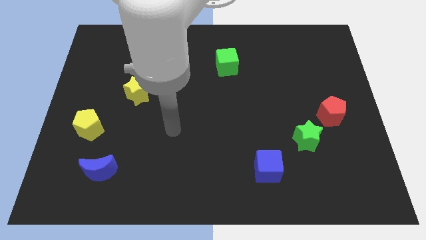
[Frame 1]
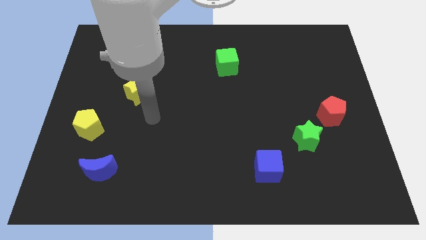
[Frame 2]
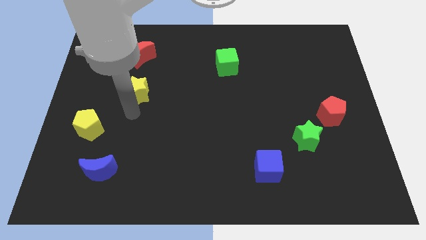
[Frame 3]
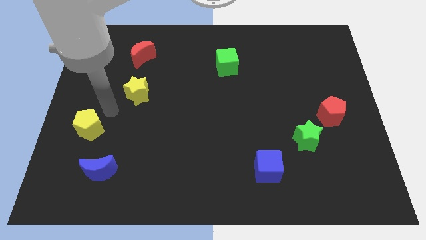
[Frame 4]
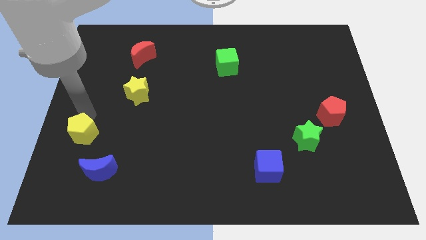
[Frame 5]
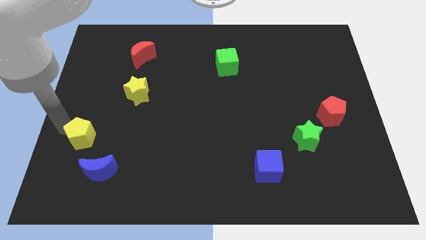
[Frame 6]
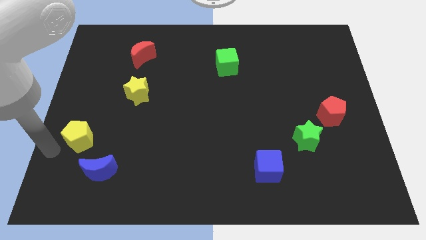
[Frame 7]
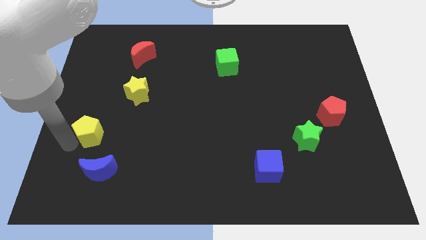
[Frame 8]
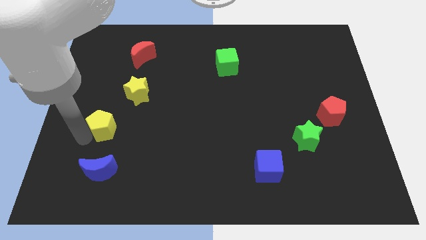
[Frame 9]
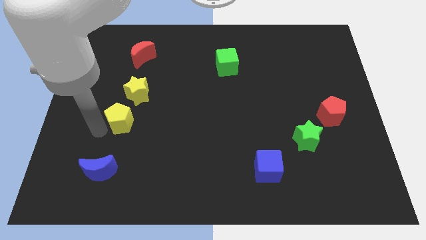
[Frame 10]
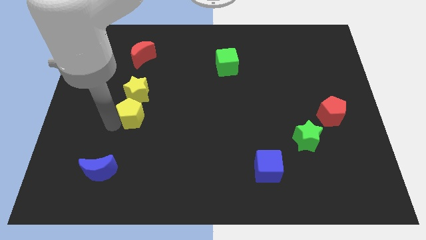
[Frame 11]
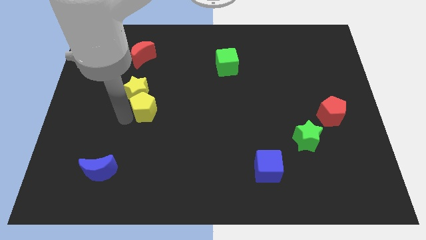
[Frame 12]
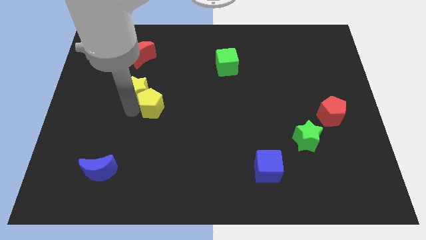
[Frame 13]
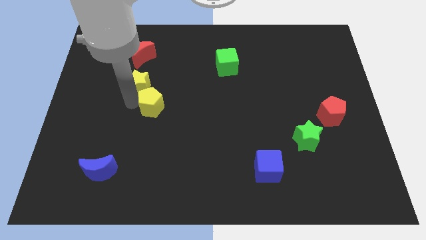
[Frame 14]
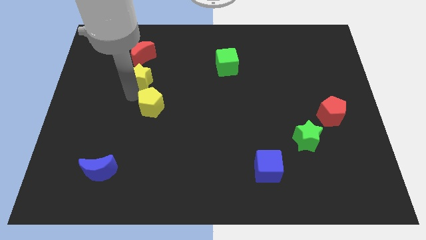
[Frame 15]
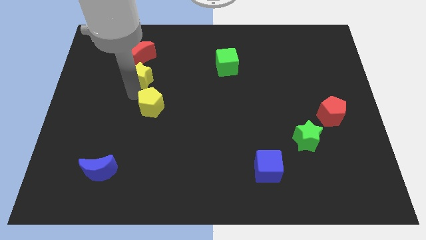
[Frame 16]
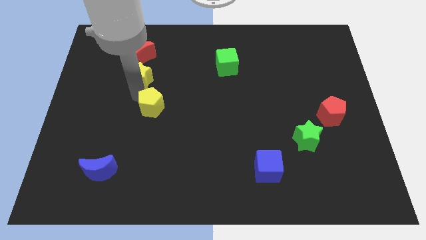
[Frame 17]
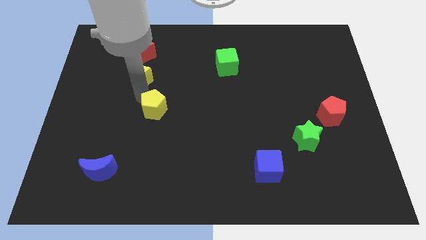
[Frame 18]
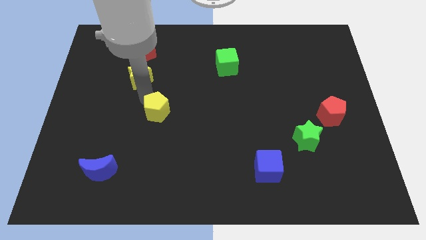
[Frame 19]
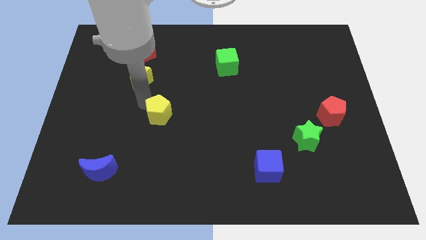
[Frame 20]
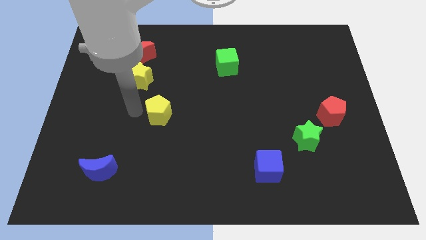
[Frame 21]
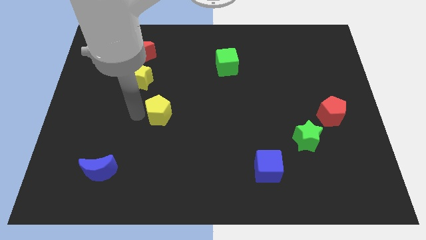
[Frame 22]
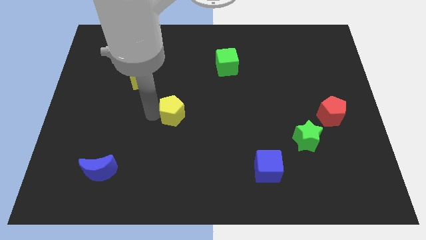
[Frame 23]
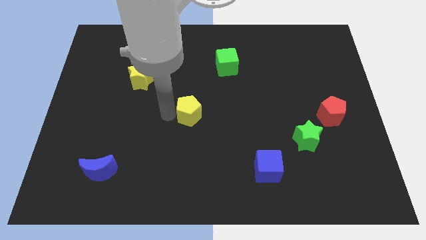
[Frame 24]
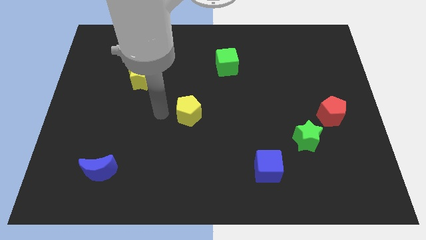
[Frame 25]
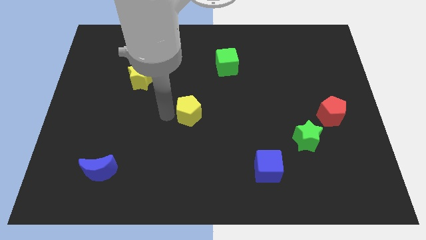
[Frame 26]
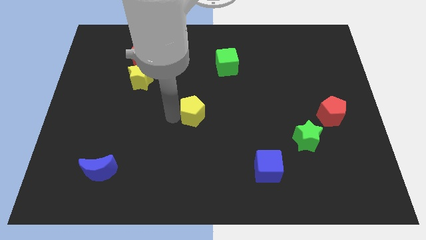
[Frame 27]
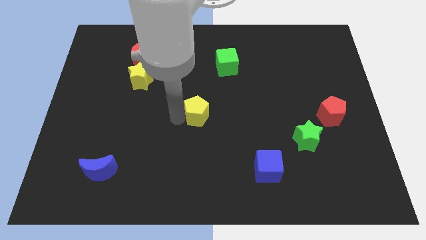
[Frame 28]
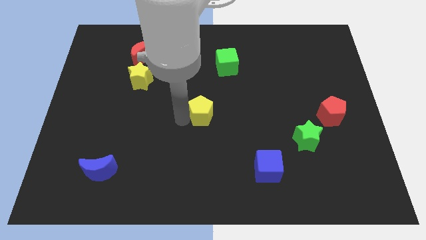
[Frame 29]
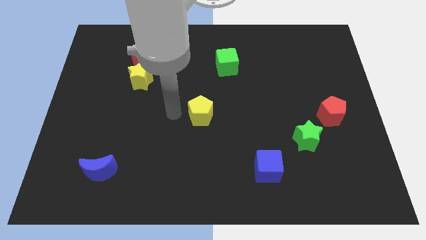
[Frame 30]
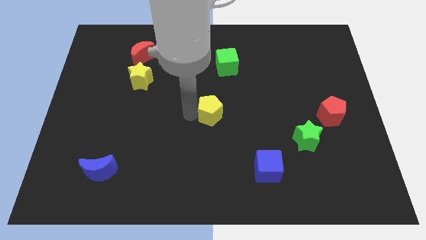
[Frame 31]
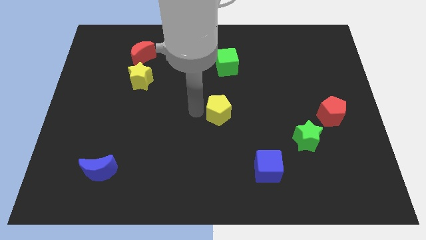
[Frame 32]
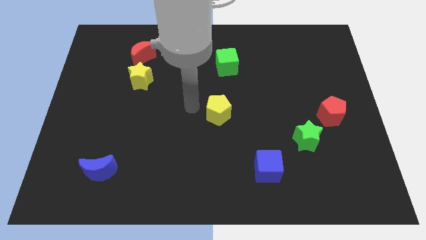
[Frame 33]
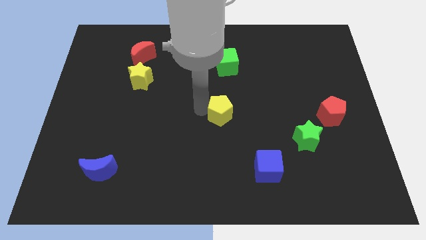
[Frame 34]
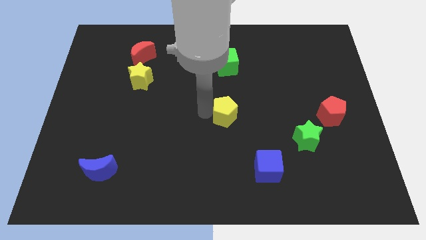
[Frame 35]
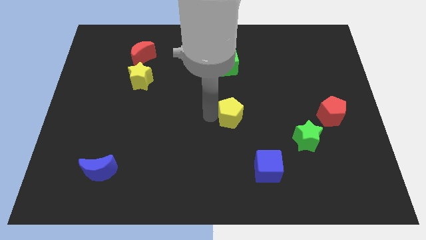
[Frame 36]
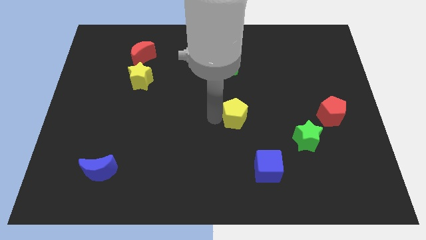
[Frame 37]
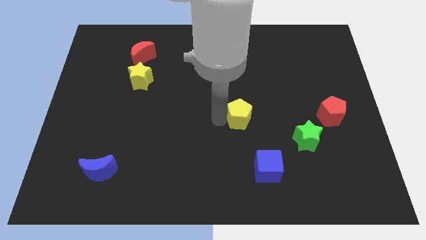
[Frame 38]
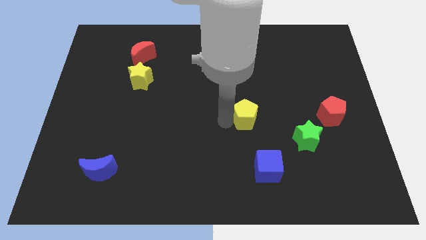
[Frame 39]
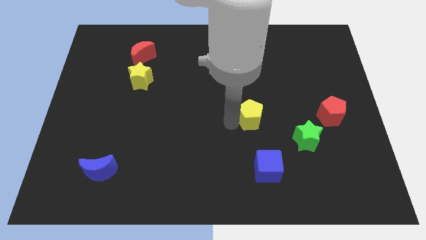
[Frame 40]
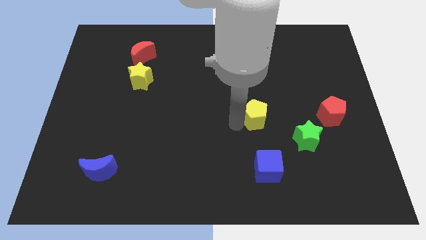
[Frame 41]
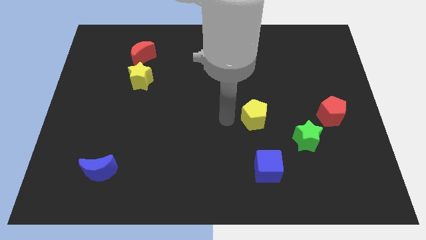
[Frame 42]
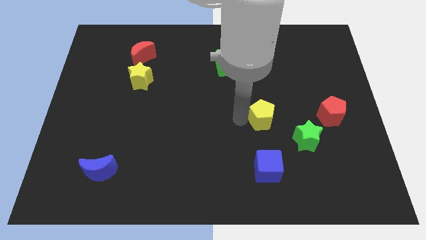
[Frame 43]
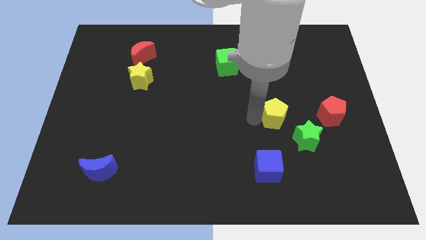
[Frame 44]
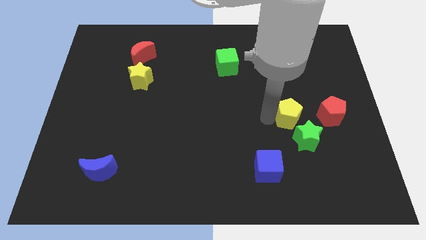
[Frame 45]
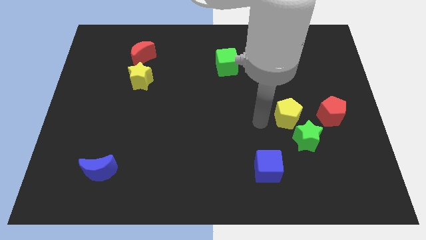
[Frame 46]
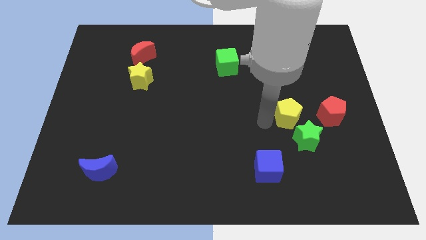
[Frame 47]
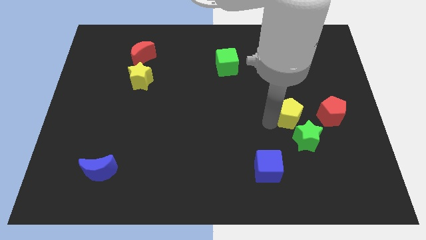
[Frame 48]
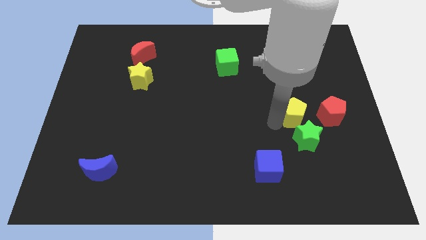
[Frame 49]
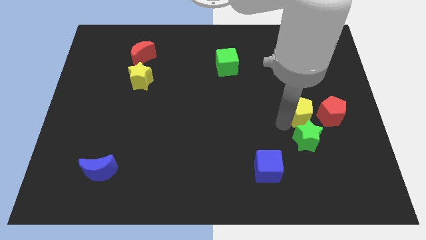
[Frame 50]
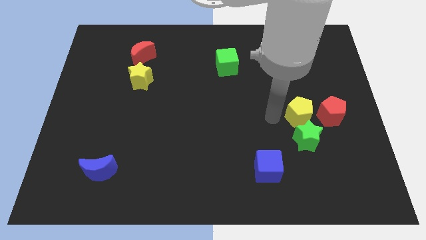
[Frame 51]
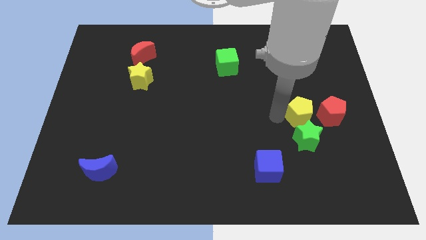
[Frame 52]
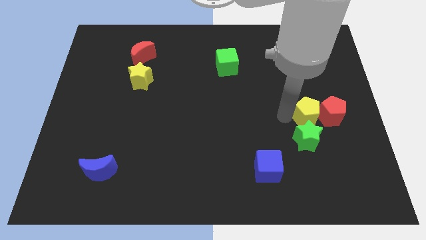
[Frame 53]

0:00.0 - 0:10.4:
slide the yellow pentagon close to the red pentagon

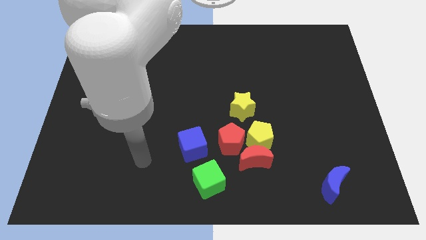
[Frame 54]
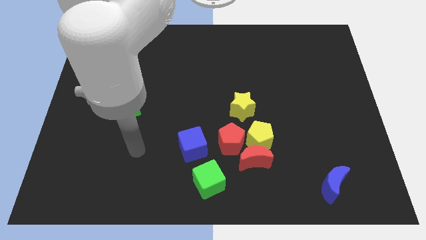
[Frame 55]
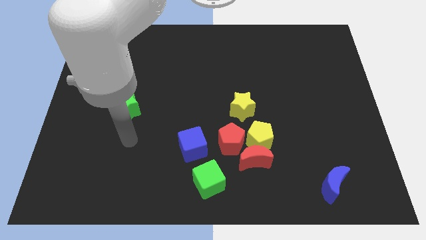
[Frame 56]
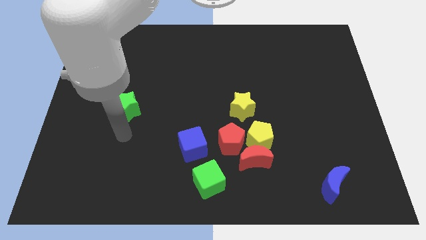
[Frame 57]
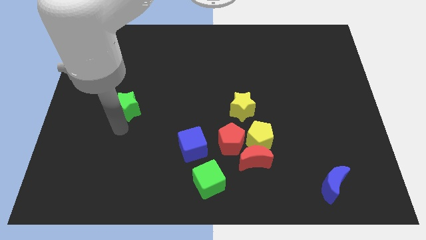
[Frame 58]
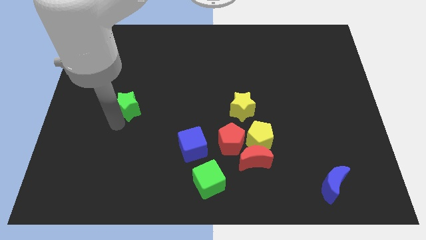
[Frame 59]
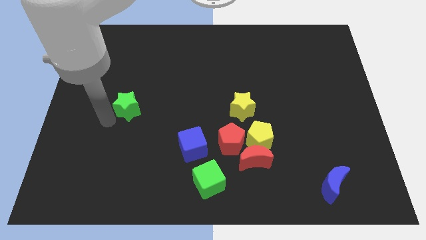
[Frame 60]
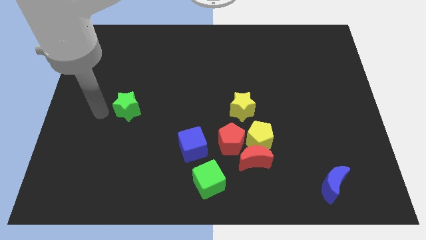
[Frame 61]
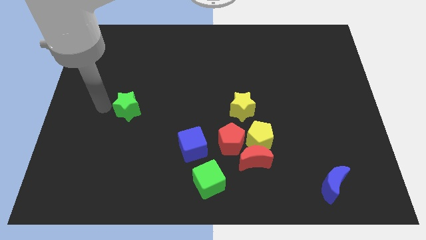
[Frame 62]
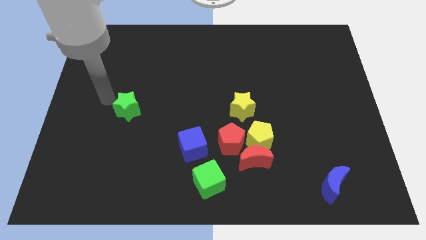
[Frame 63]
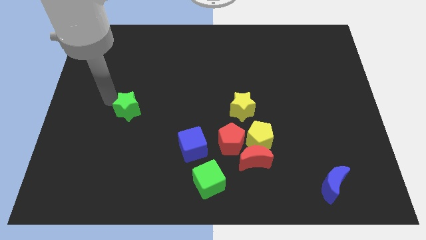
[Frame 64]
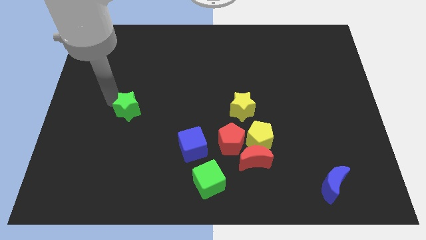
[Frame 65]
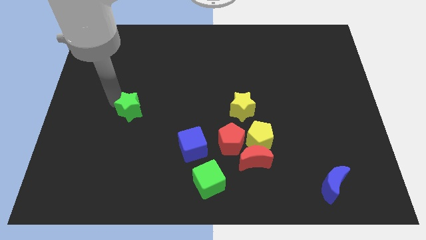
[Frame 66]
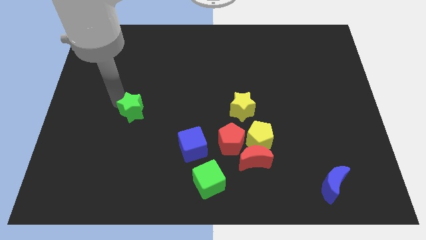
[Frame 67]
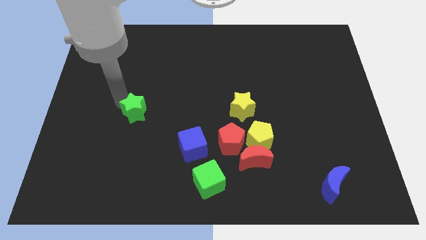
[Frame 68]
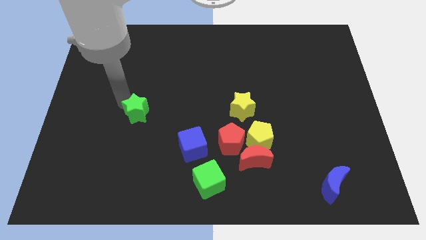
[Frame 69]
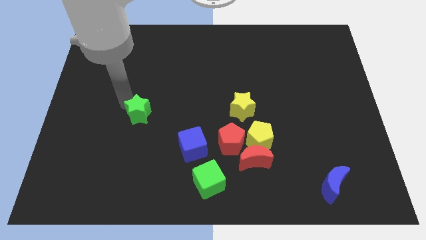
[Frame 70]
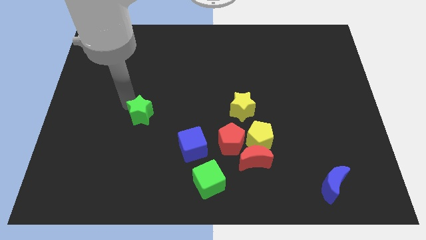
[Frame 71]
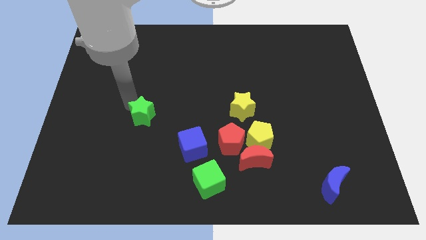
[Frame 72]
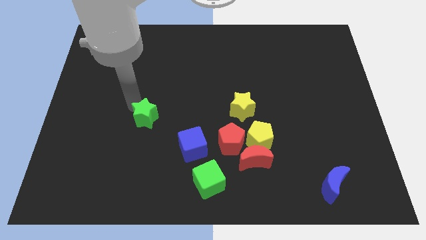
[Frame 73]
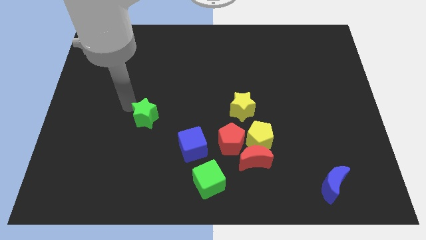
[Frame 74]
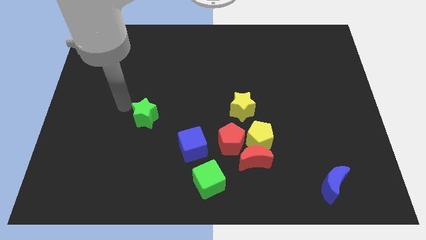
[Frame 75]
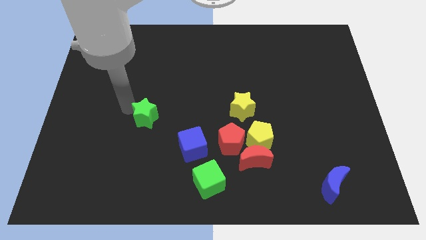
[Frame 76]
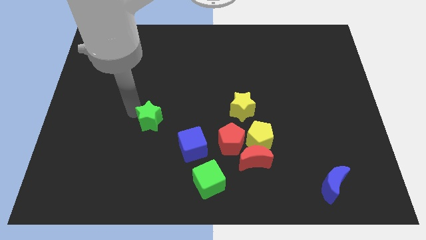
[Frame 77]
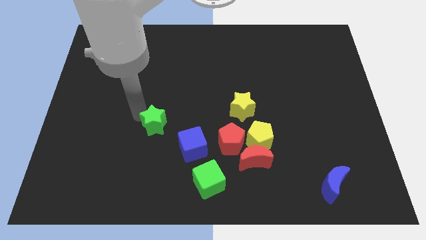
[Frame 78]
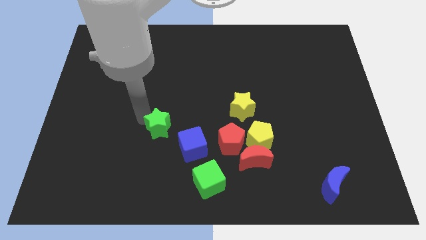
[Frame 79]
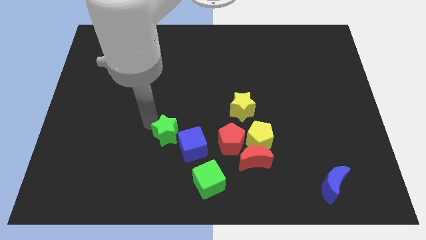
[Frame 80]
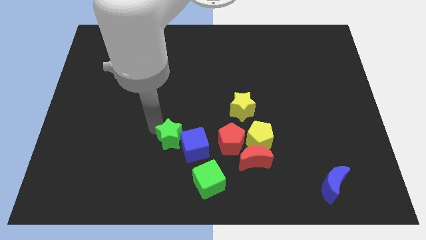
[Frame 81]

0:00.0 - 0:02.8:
put the green star close to the blue cube
